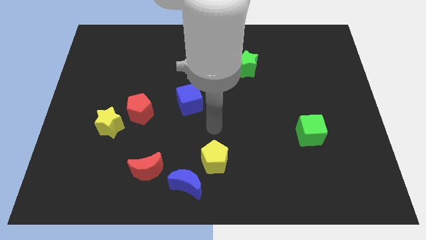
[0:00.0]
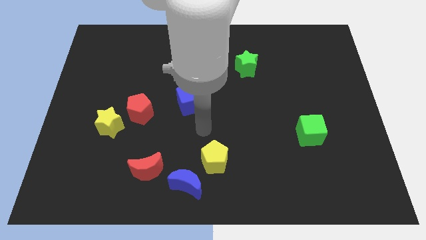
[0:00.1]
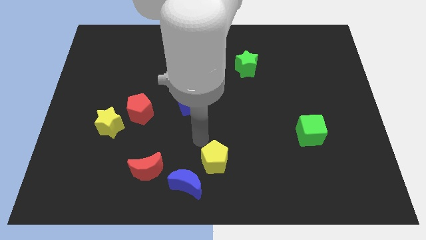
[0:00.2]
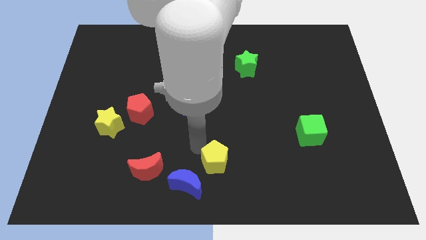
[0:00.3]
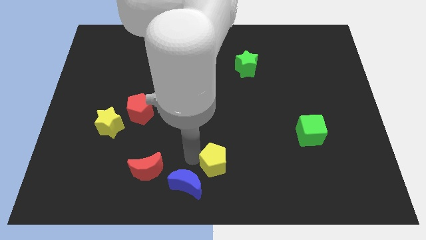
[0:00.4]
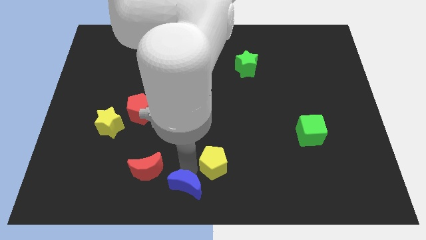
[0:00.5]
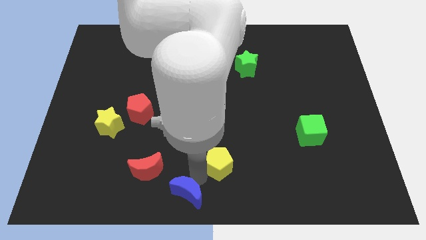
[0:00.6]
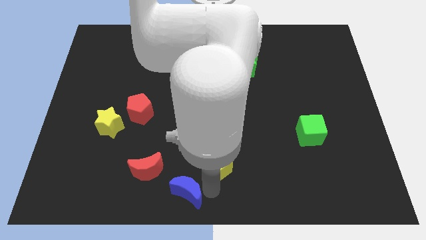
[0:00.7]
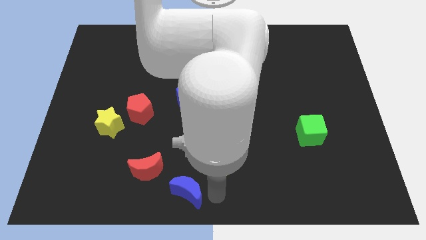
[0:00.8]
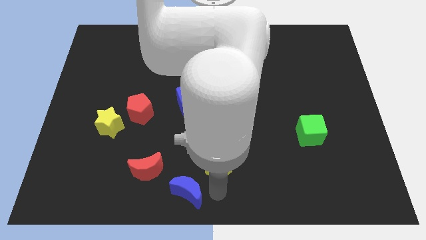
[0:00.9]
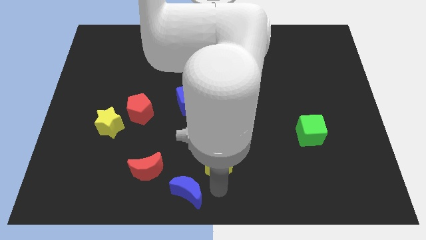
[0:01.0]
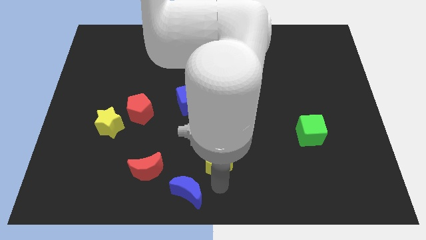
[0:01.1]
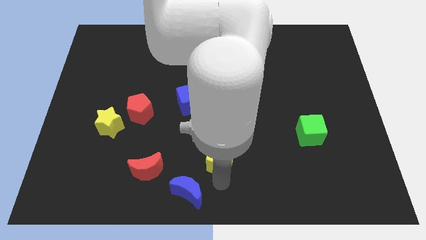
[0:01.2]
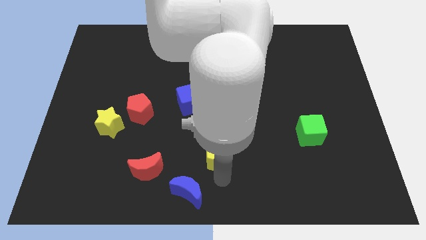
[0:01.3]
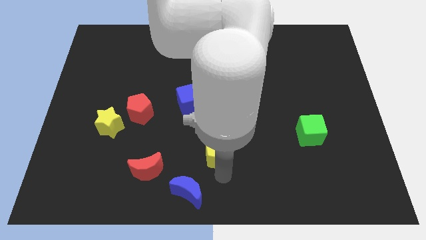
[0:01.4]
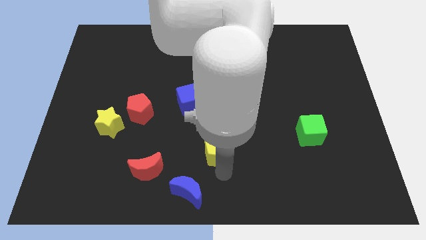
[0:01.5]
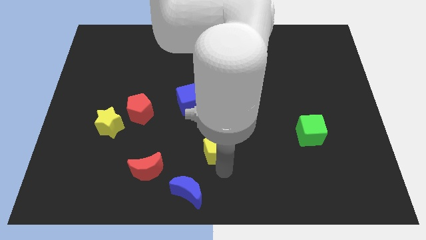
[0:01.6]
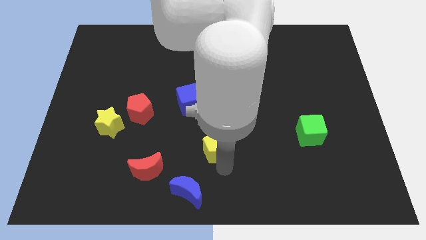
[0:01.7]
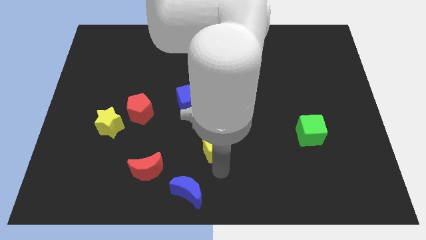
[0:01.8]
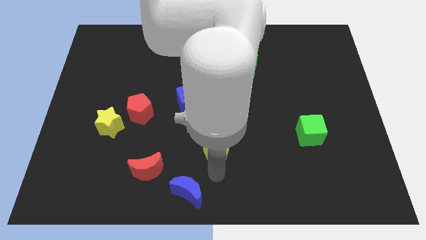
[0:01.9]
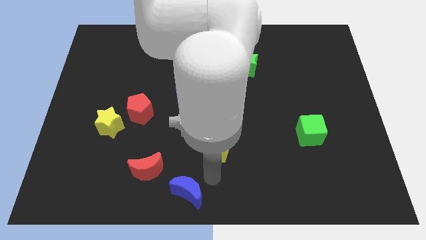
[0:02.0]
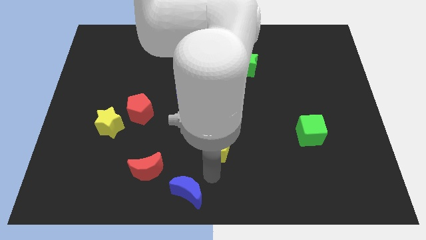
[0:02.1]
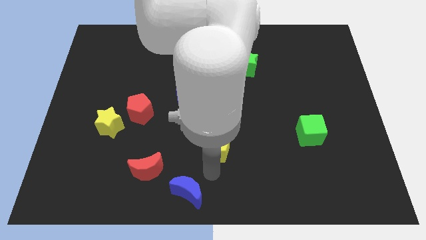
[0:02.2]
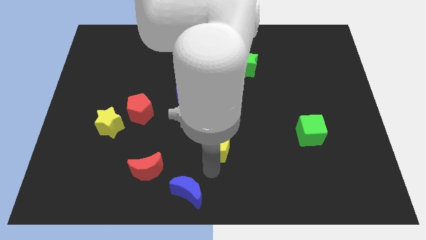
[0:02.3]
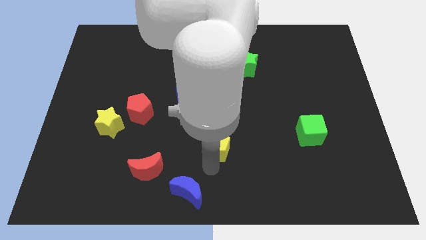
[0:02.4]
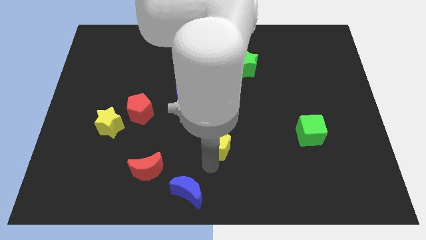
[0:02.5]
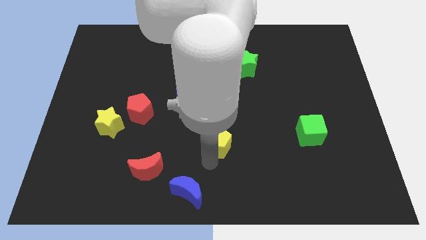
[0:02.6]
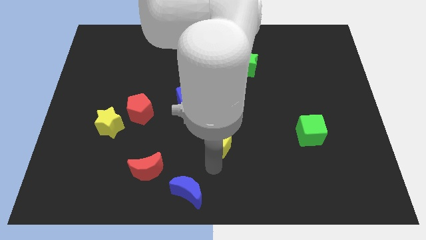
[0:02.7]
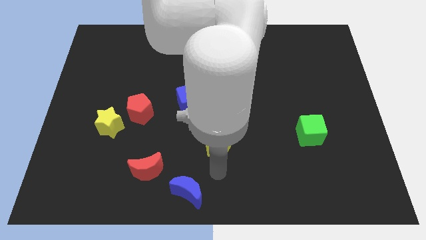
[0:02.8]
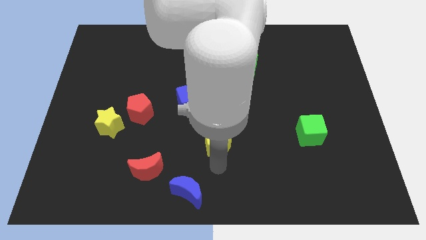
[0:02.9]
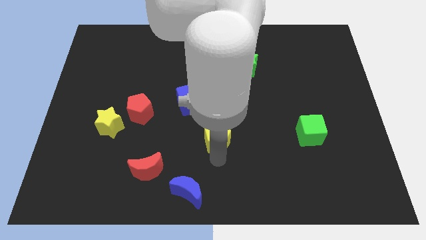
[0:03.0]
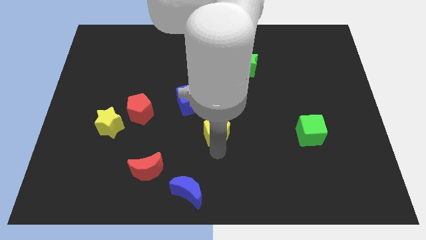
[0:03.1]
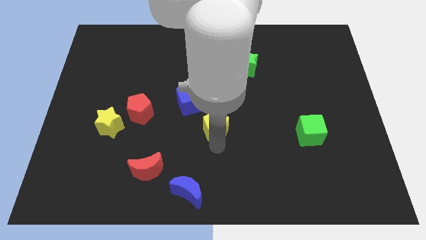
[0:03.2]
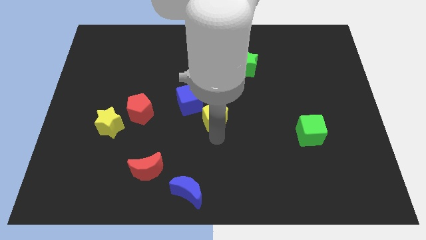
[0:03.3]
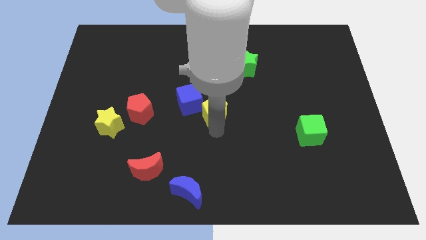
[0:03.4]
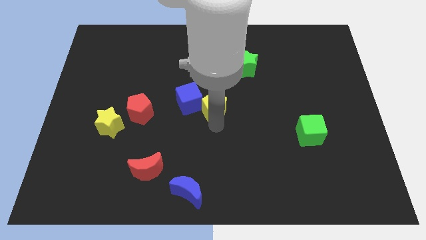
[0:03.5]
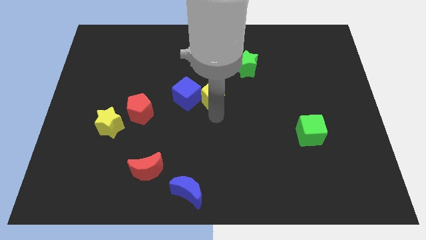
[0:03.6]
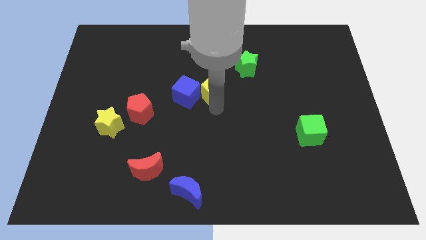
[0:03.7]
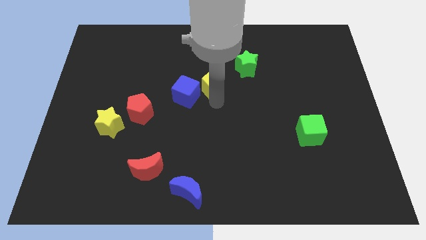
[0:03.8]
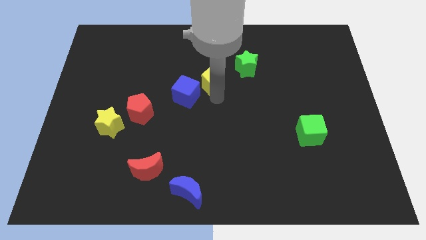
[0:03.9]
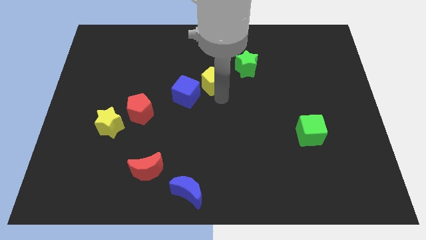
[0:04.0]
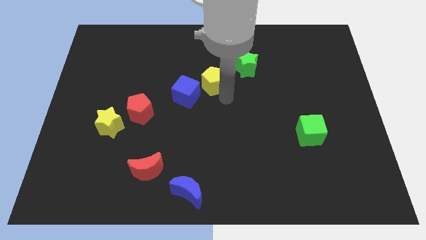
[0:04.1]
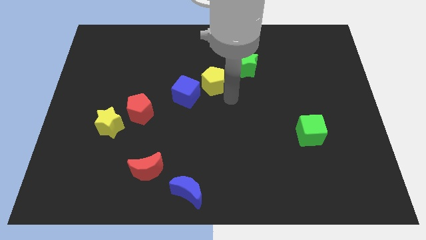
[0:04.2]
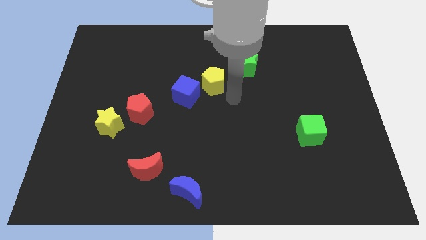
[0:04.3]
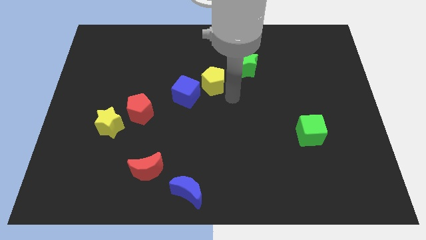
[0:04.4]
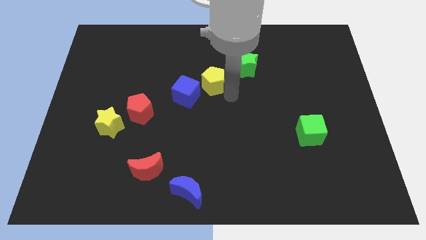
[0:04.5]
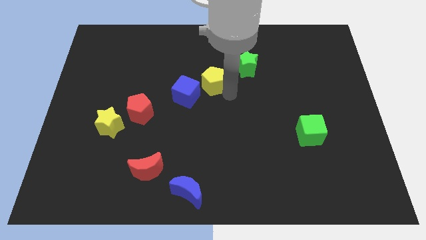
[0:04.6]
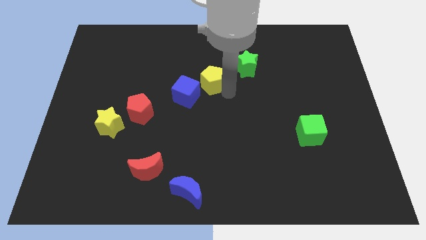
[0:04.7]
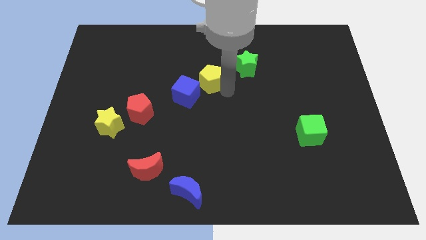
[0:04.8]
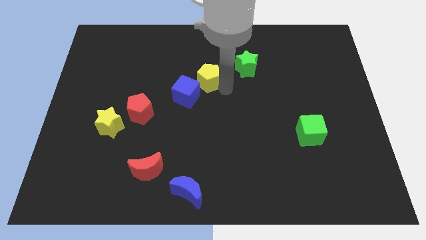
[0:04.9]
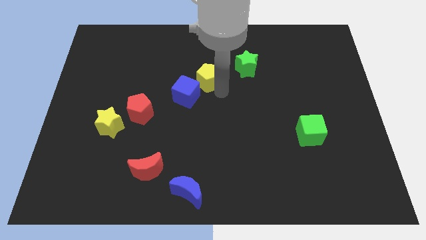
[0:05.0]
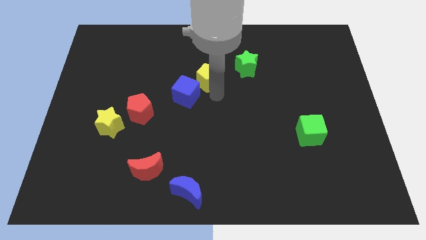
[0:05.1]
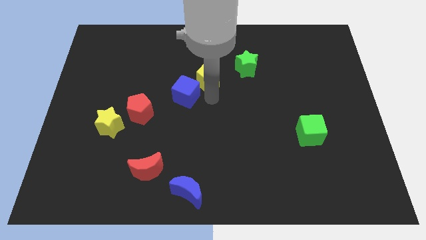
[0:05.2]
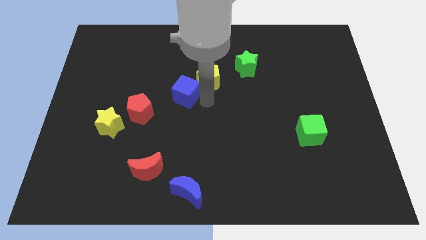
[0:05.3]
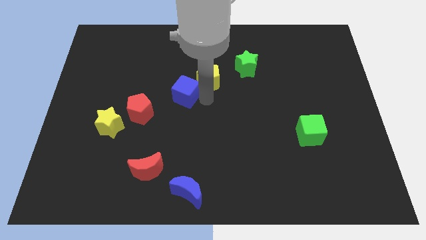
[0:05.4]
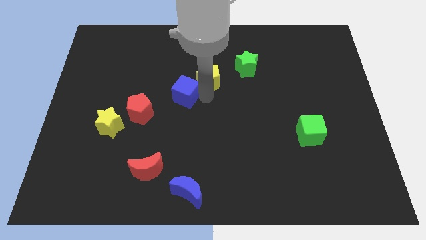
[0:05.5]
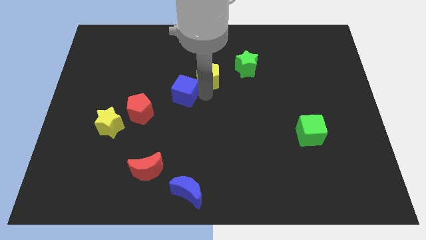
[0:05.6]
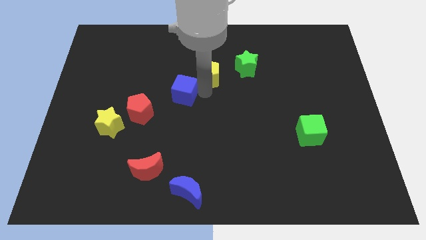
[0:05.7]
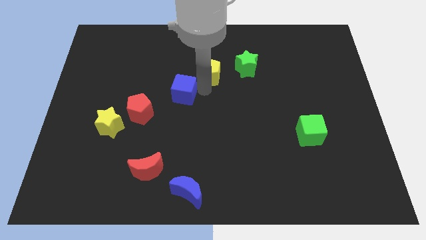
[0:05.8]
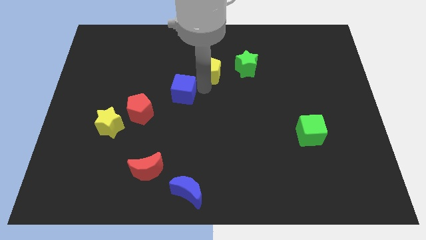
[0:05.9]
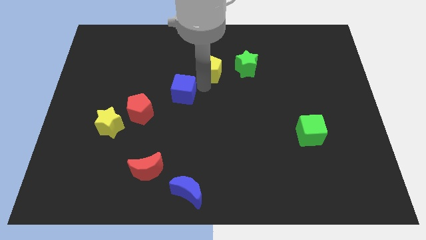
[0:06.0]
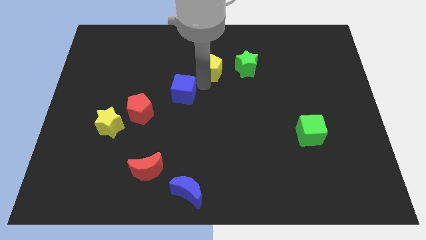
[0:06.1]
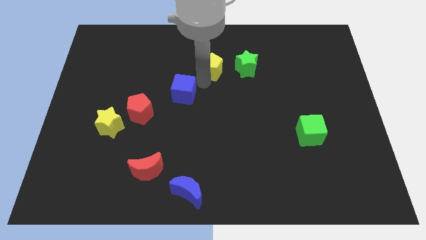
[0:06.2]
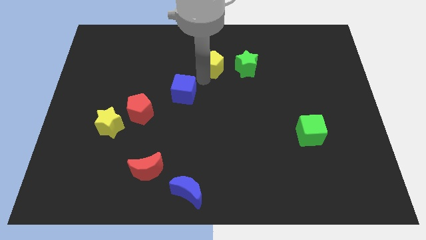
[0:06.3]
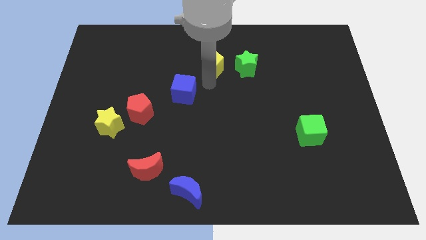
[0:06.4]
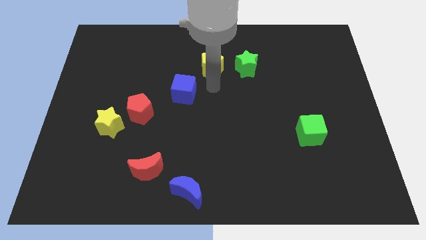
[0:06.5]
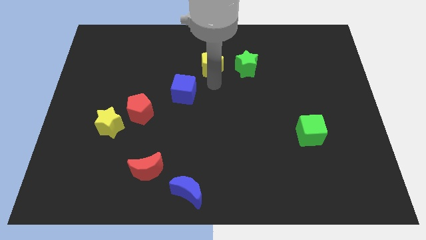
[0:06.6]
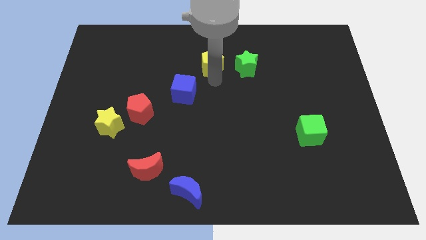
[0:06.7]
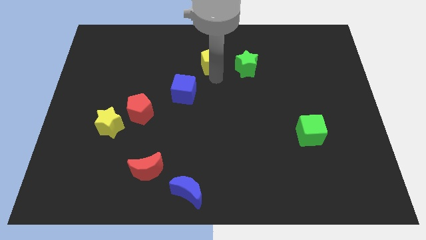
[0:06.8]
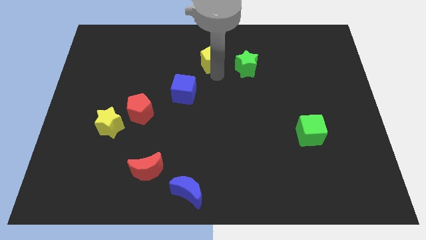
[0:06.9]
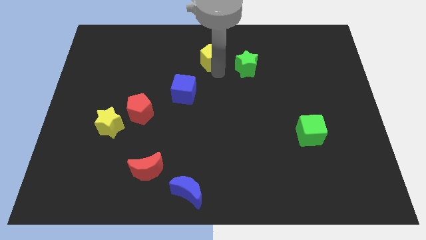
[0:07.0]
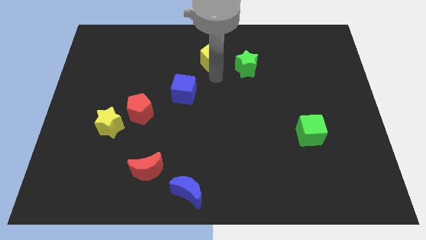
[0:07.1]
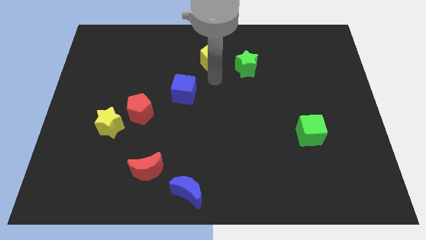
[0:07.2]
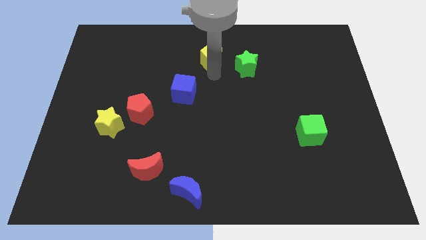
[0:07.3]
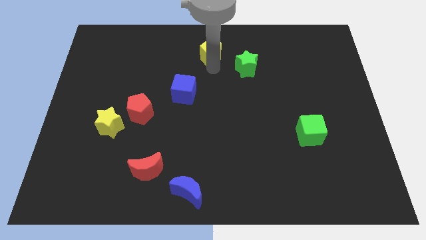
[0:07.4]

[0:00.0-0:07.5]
slide the yellow pentagon to the towards your base
